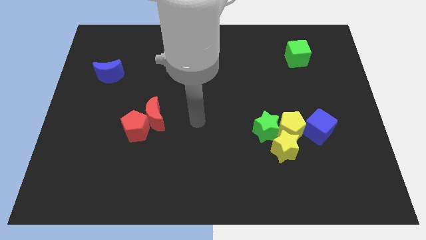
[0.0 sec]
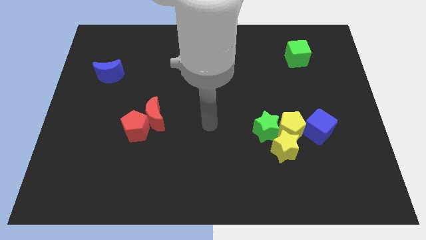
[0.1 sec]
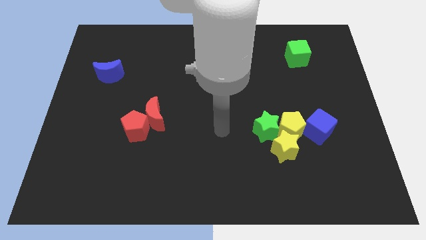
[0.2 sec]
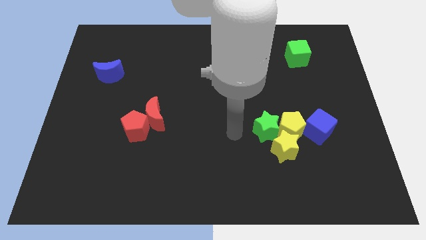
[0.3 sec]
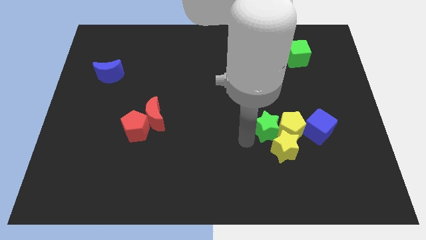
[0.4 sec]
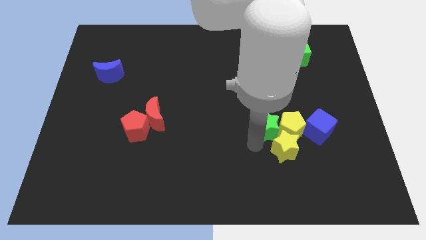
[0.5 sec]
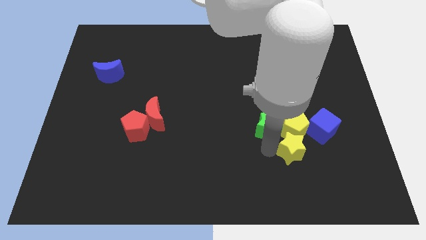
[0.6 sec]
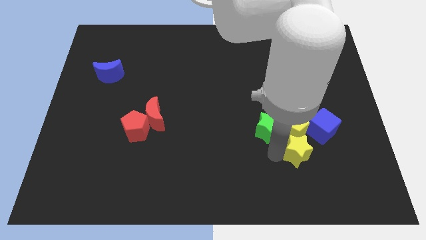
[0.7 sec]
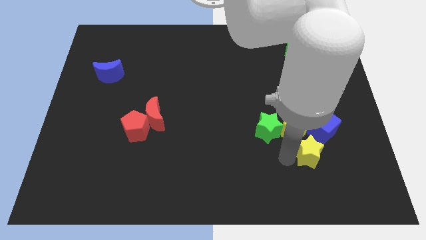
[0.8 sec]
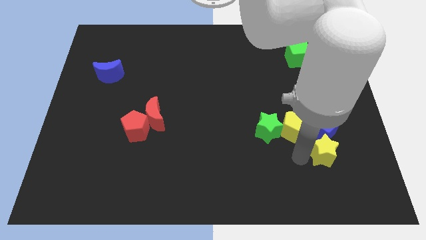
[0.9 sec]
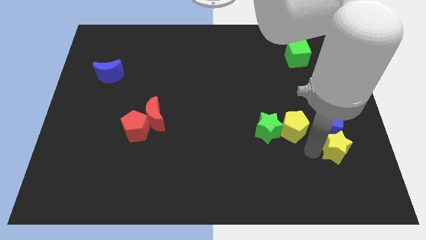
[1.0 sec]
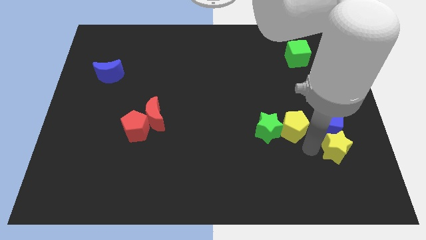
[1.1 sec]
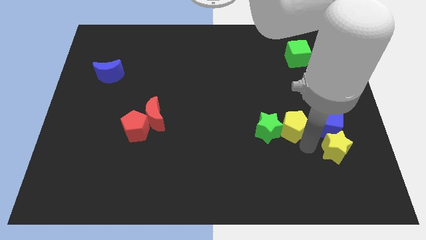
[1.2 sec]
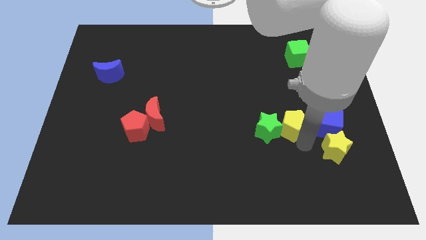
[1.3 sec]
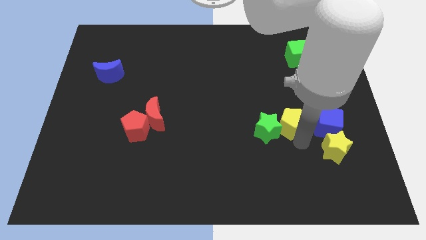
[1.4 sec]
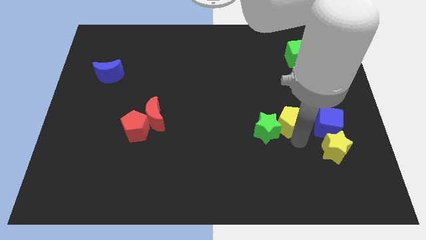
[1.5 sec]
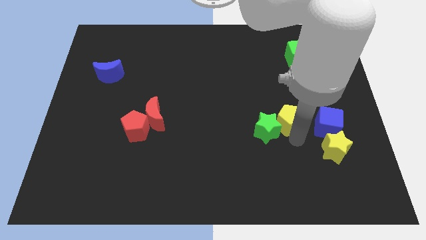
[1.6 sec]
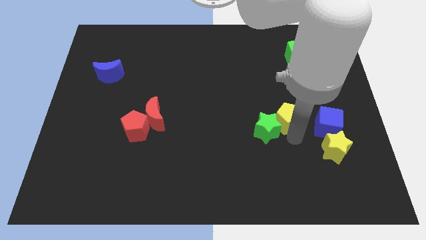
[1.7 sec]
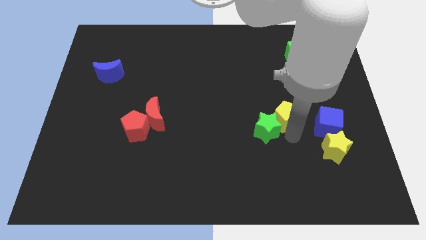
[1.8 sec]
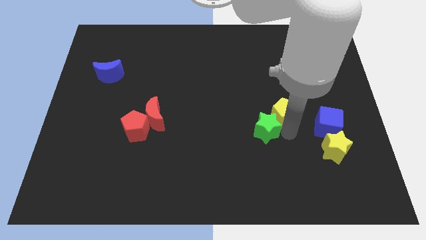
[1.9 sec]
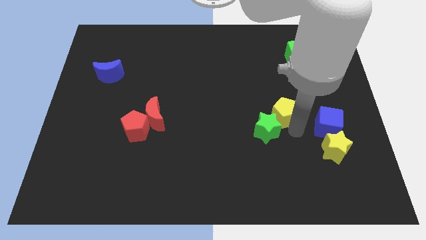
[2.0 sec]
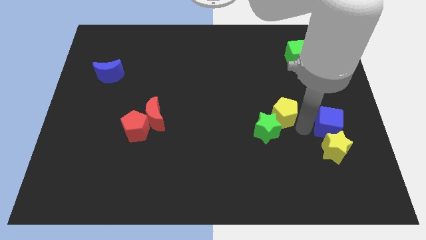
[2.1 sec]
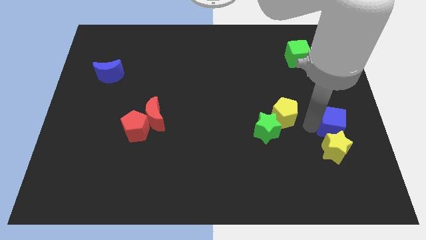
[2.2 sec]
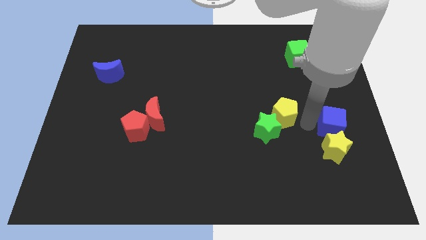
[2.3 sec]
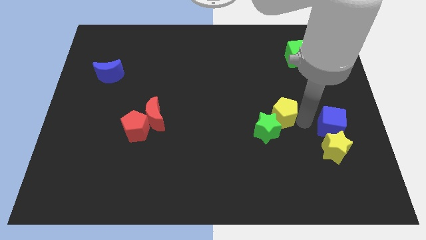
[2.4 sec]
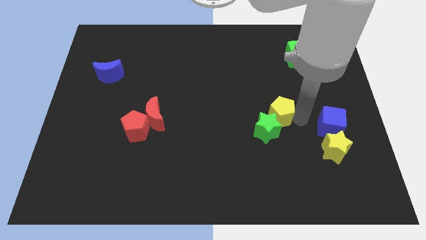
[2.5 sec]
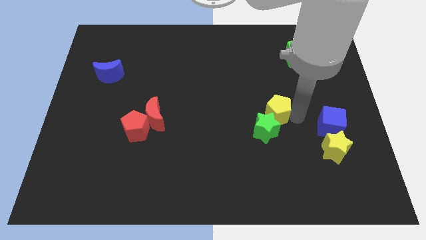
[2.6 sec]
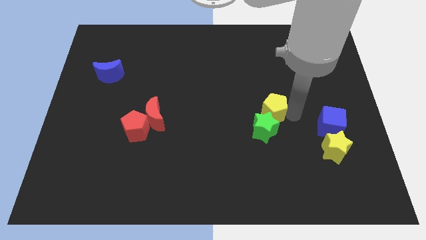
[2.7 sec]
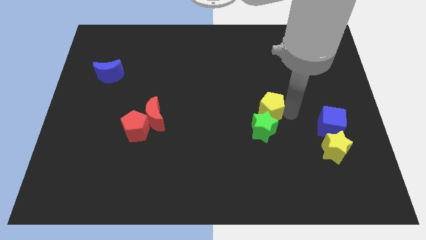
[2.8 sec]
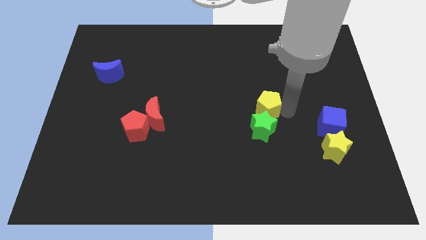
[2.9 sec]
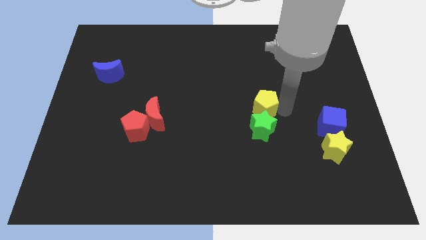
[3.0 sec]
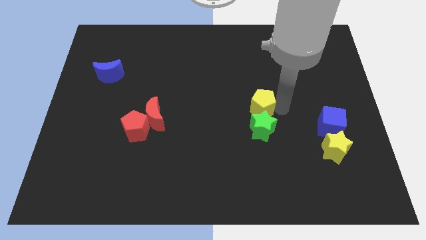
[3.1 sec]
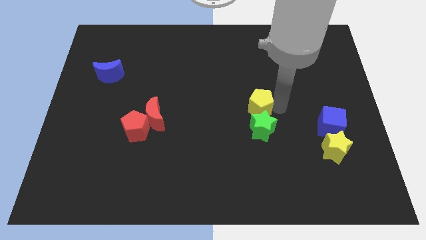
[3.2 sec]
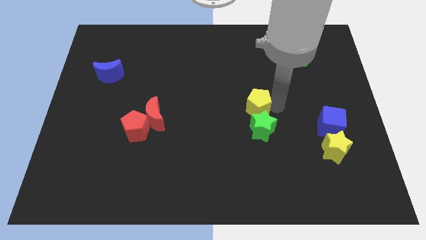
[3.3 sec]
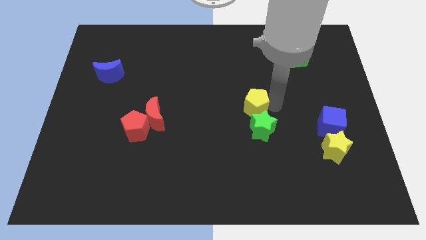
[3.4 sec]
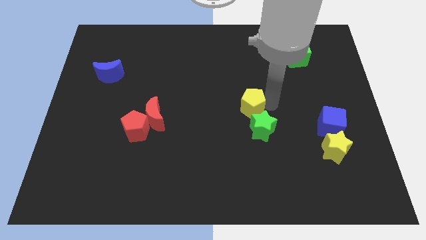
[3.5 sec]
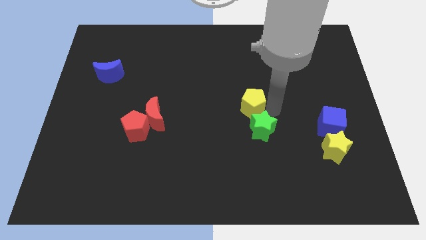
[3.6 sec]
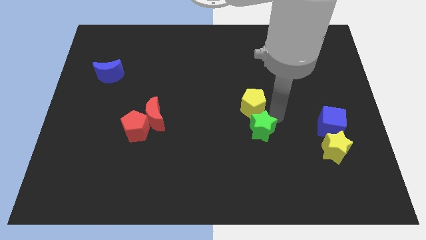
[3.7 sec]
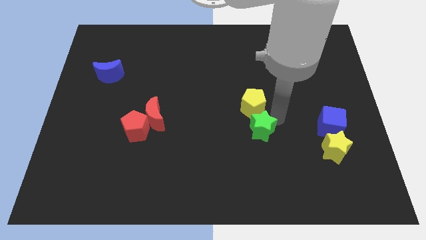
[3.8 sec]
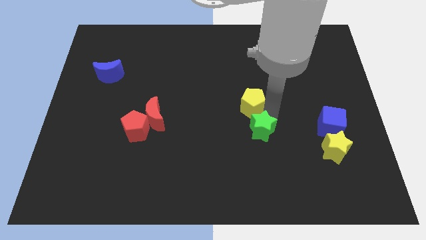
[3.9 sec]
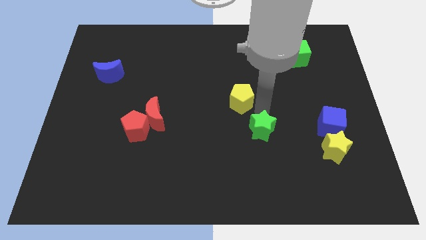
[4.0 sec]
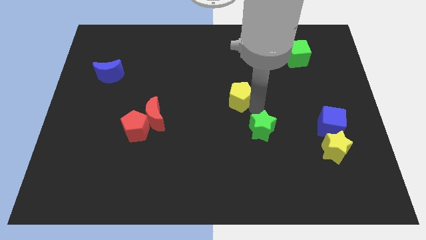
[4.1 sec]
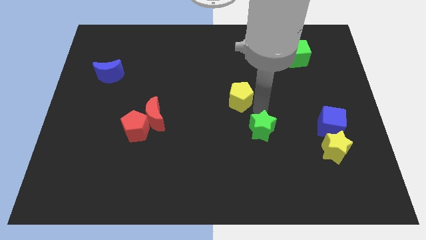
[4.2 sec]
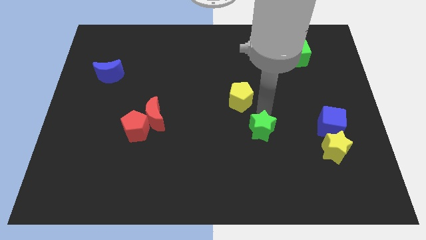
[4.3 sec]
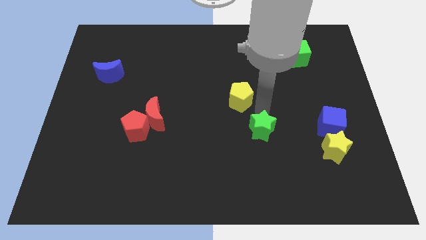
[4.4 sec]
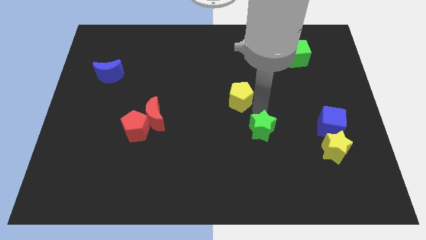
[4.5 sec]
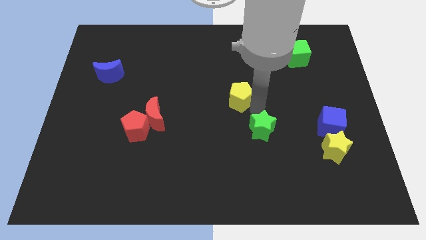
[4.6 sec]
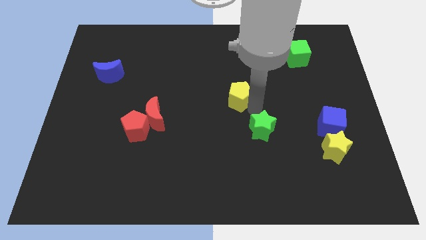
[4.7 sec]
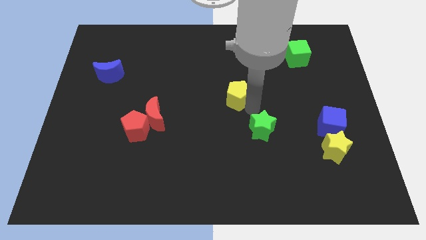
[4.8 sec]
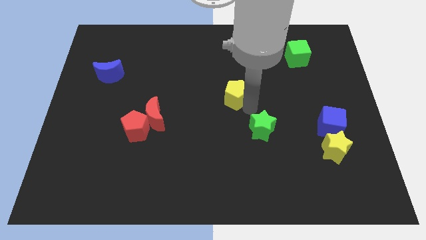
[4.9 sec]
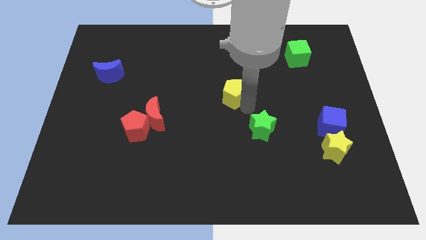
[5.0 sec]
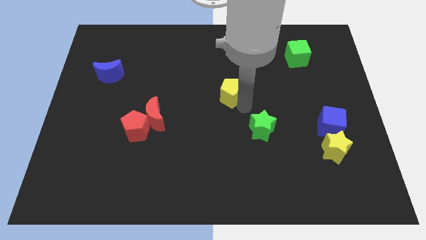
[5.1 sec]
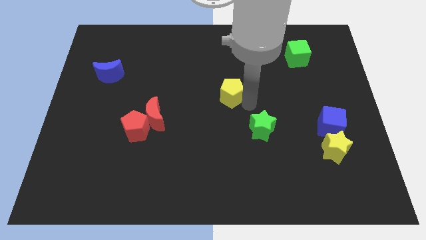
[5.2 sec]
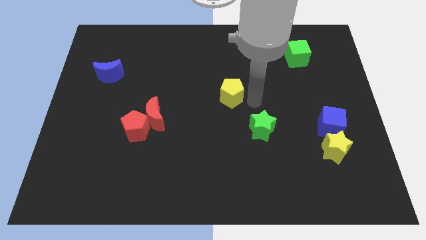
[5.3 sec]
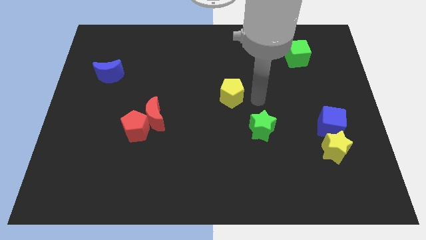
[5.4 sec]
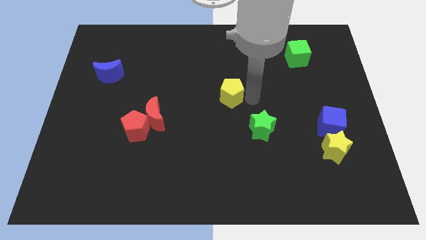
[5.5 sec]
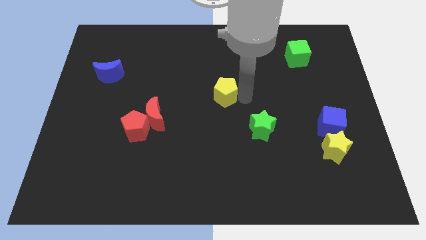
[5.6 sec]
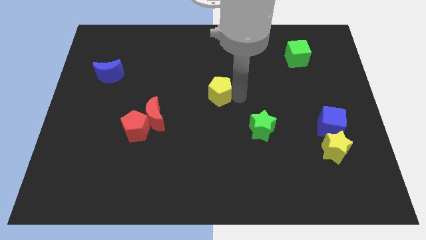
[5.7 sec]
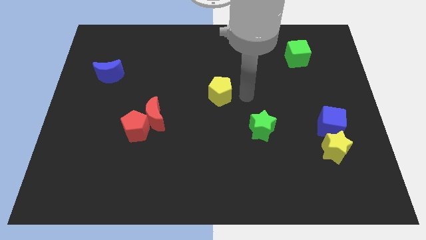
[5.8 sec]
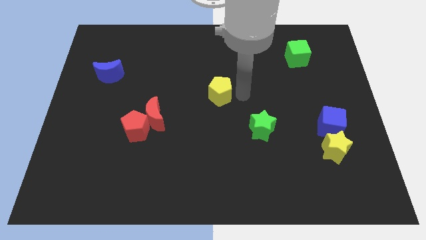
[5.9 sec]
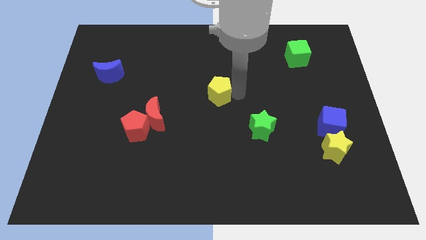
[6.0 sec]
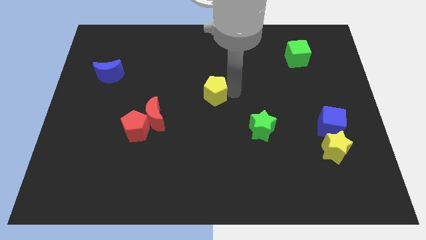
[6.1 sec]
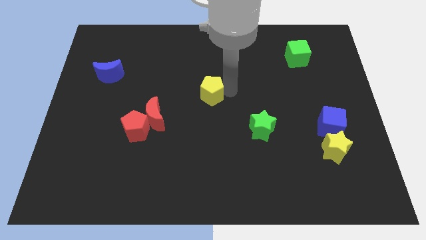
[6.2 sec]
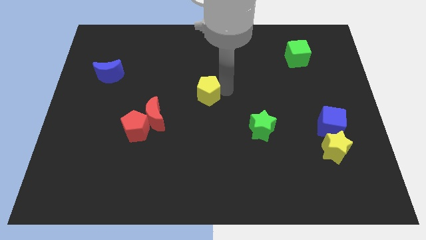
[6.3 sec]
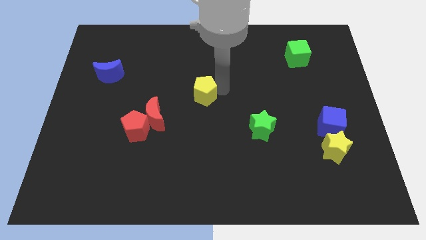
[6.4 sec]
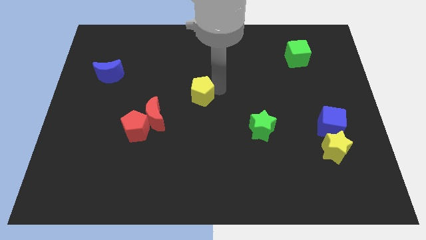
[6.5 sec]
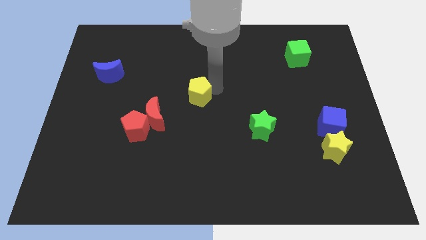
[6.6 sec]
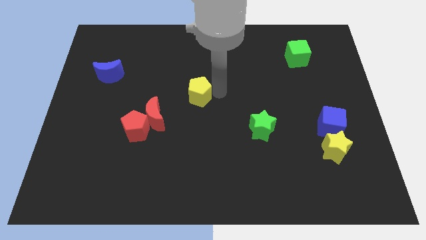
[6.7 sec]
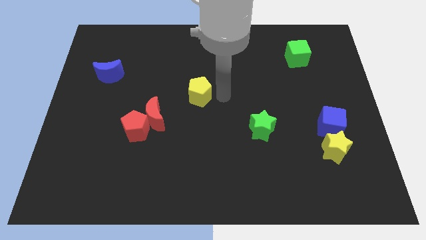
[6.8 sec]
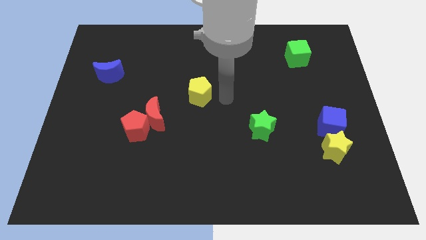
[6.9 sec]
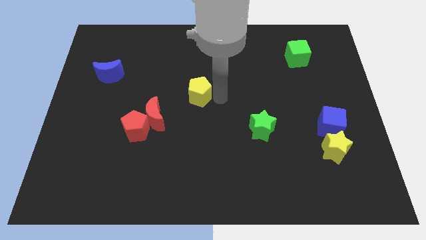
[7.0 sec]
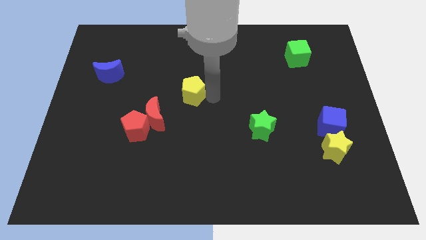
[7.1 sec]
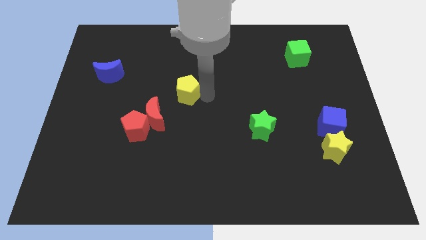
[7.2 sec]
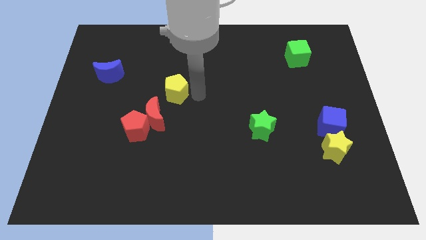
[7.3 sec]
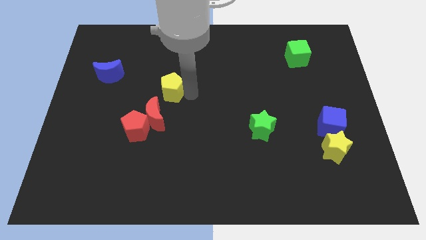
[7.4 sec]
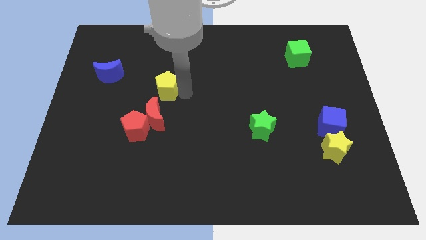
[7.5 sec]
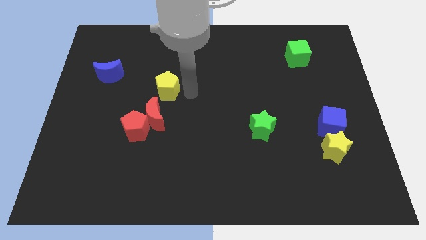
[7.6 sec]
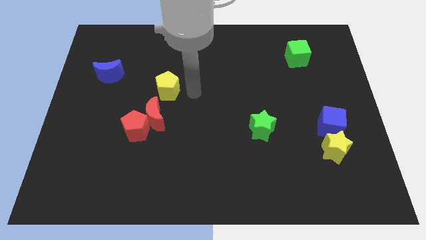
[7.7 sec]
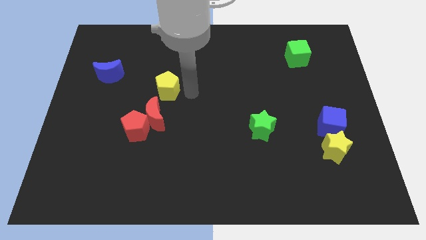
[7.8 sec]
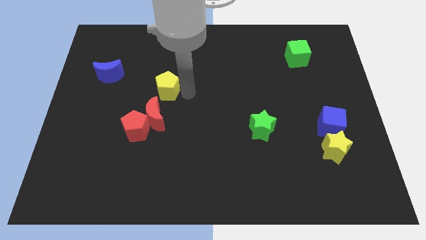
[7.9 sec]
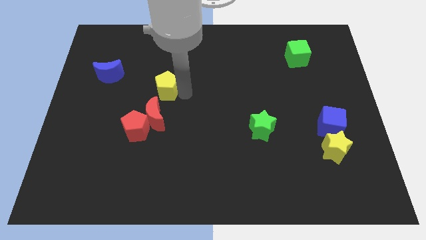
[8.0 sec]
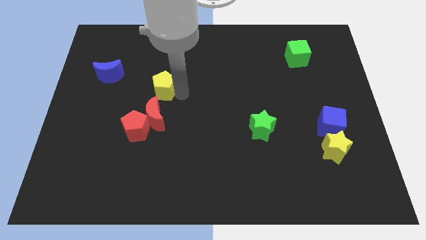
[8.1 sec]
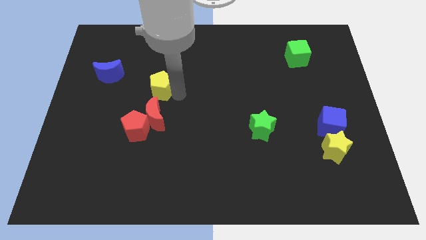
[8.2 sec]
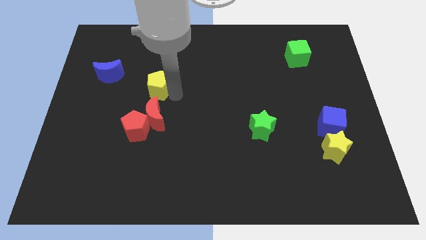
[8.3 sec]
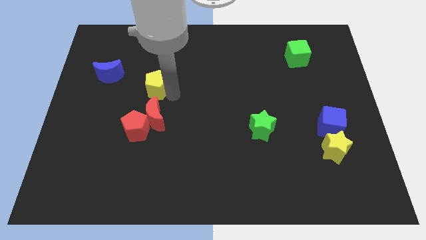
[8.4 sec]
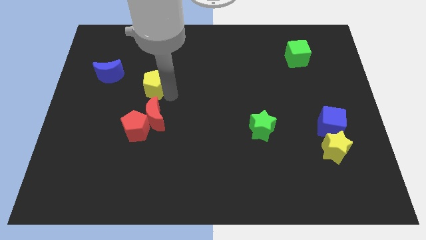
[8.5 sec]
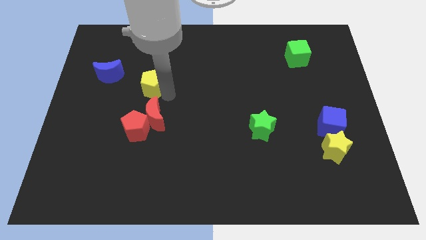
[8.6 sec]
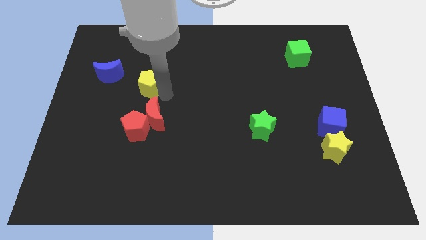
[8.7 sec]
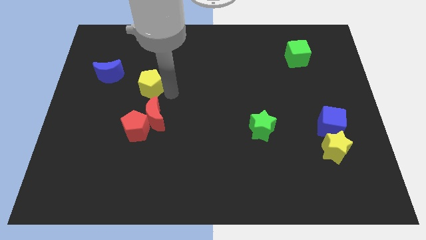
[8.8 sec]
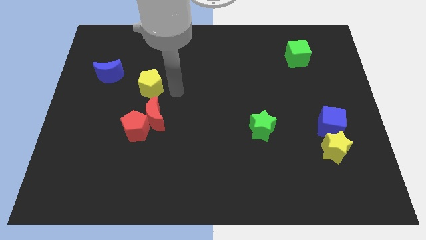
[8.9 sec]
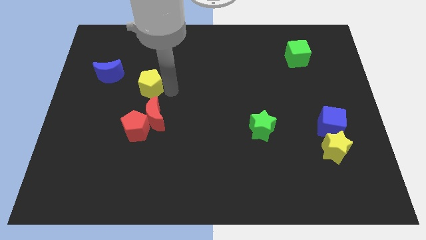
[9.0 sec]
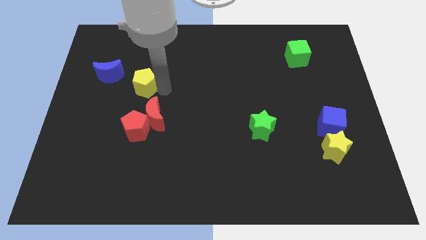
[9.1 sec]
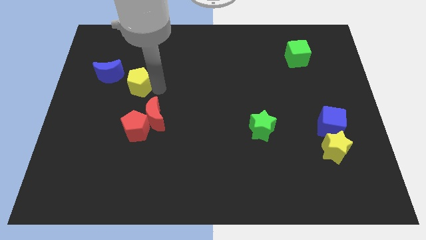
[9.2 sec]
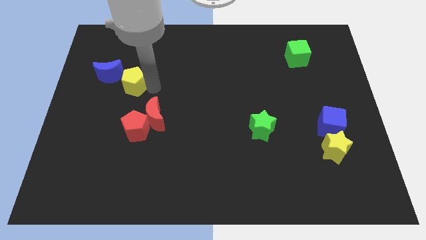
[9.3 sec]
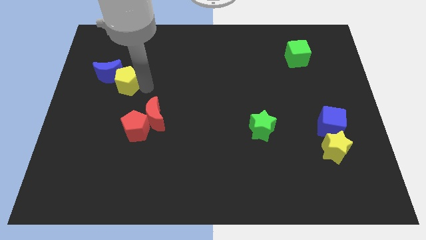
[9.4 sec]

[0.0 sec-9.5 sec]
slide the yellow pentagon next to the blue moon
